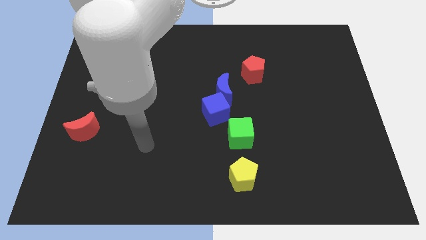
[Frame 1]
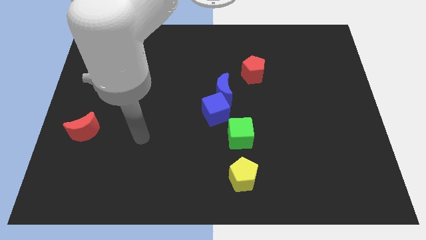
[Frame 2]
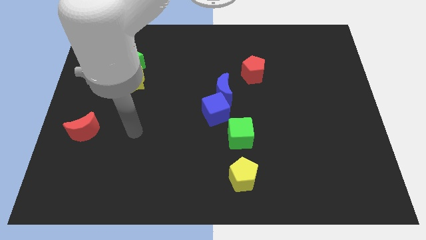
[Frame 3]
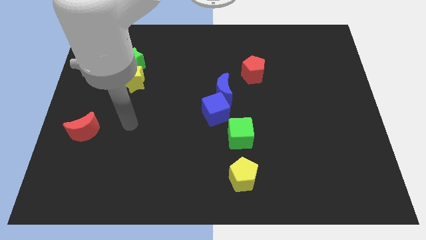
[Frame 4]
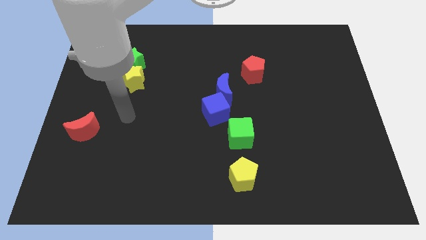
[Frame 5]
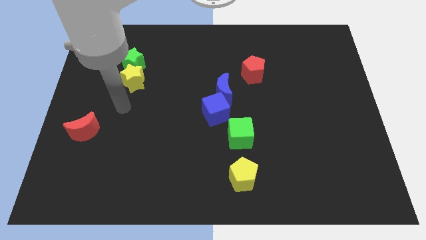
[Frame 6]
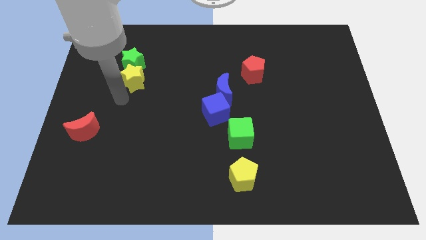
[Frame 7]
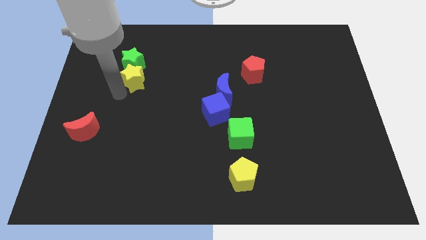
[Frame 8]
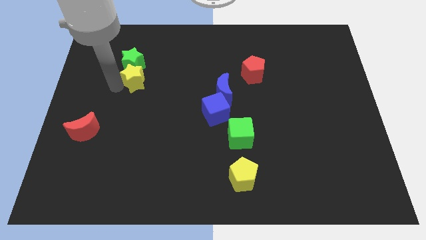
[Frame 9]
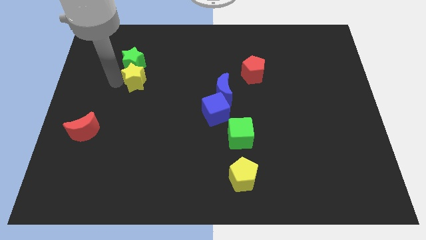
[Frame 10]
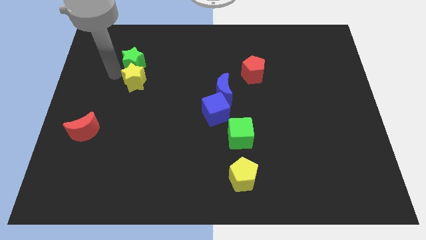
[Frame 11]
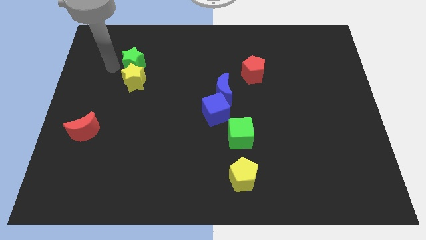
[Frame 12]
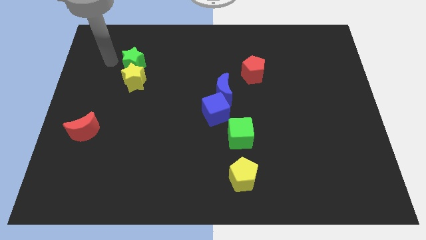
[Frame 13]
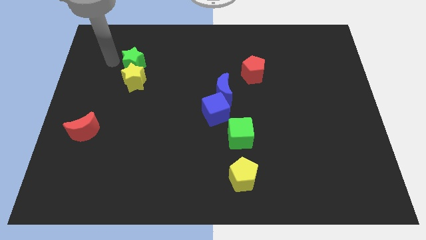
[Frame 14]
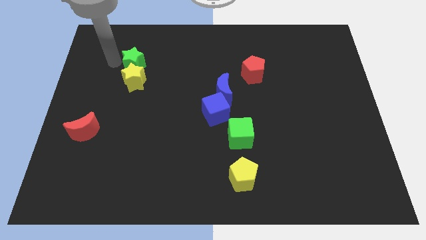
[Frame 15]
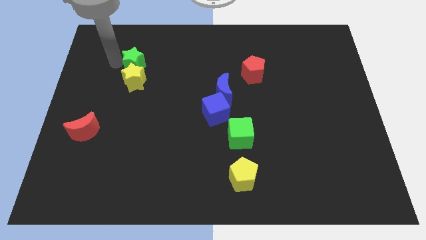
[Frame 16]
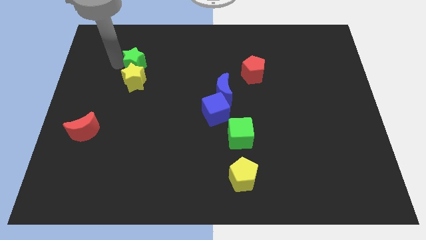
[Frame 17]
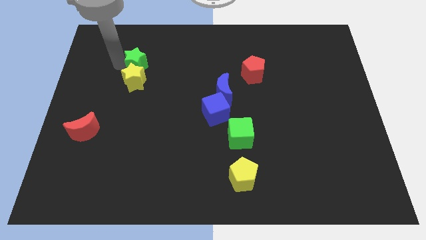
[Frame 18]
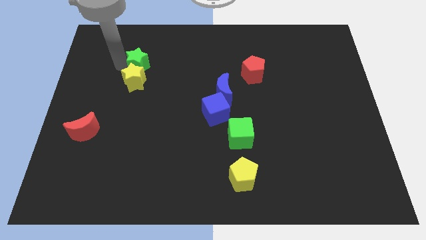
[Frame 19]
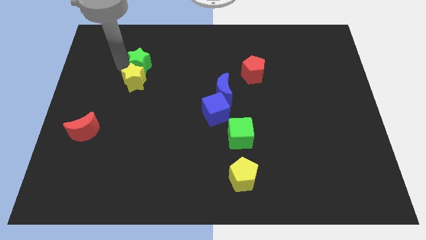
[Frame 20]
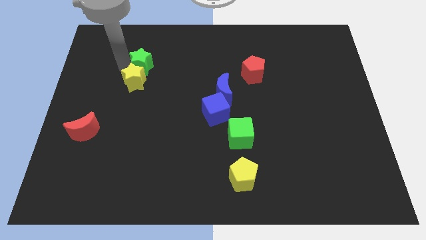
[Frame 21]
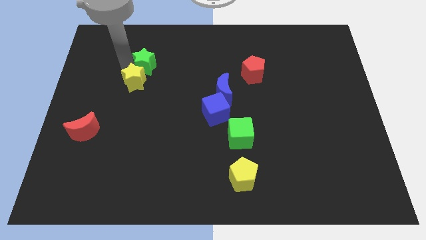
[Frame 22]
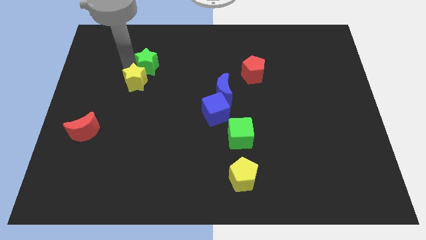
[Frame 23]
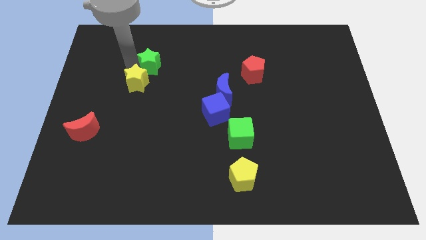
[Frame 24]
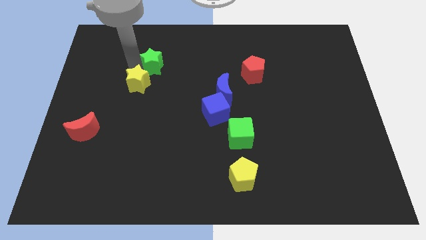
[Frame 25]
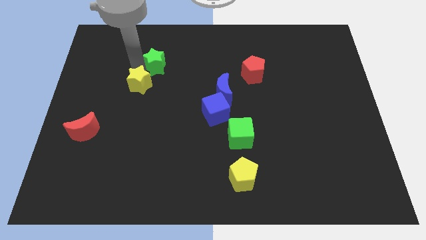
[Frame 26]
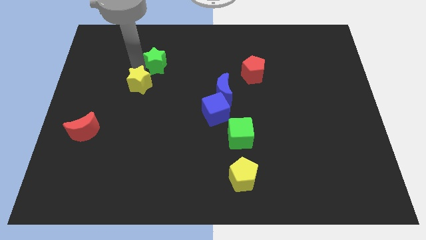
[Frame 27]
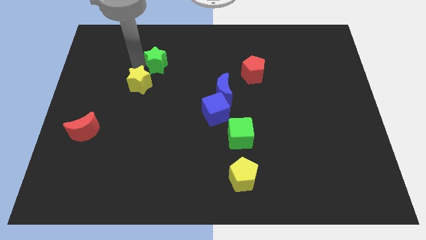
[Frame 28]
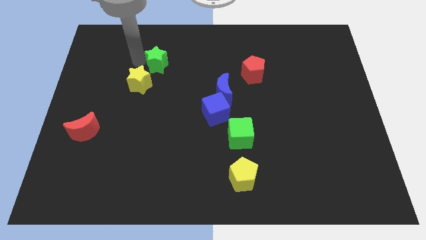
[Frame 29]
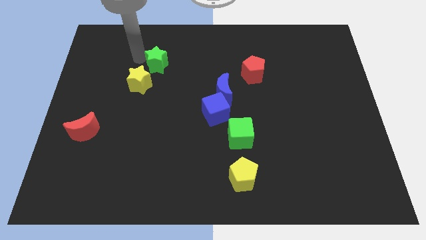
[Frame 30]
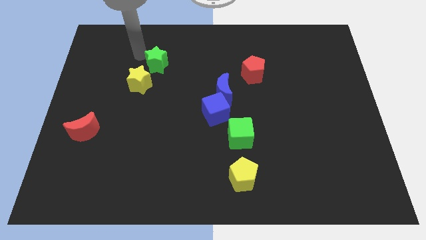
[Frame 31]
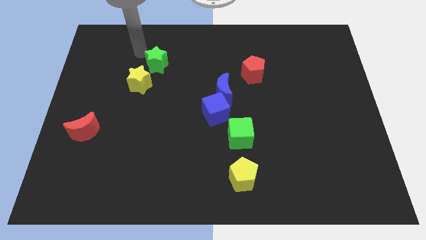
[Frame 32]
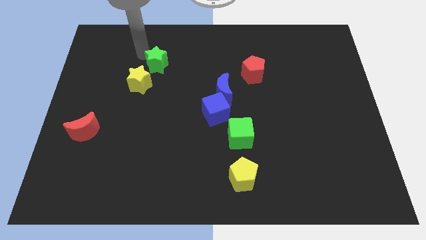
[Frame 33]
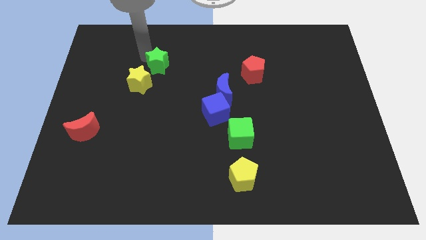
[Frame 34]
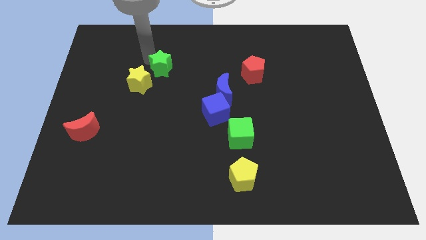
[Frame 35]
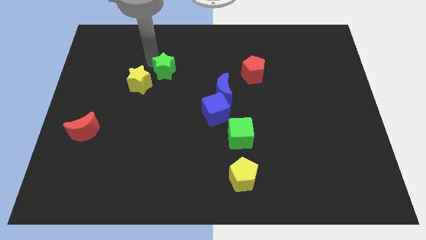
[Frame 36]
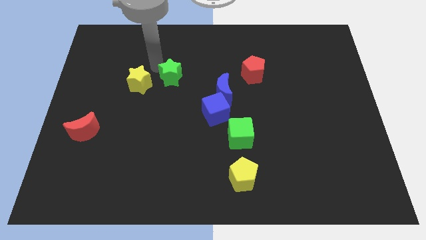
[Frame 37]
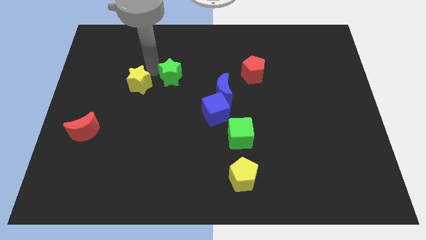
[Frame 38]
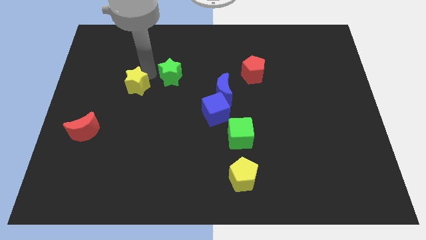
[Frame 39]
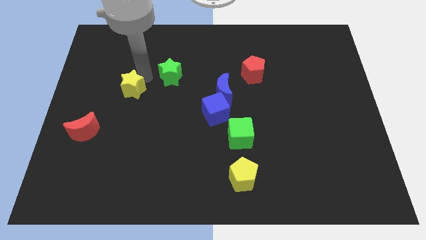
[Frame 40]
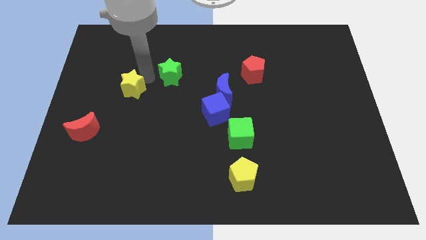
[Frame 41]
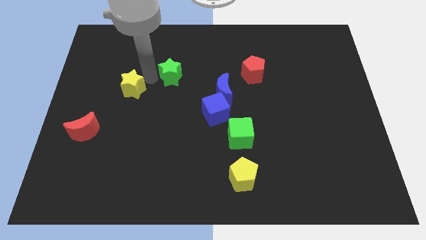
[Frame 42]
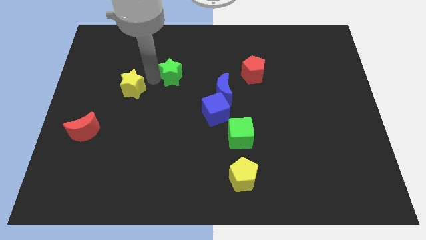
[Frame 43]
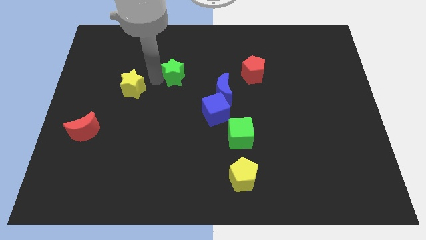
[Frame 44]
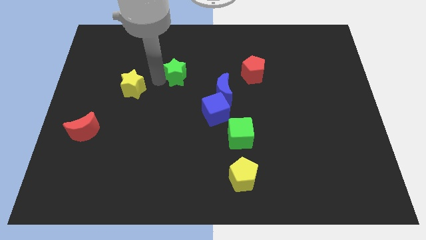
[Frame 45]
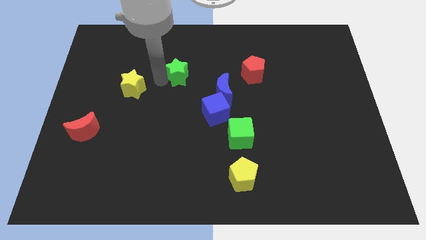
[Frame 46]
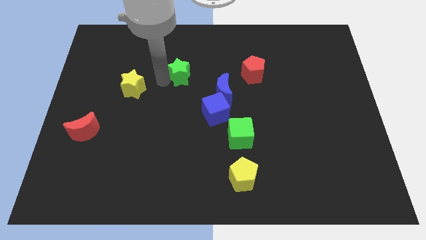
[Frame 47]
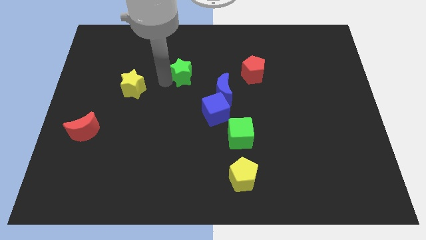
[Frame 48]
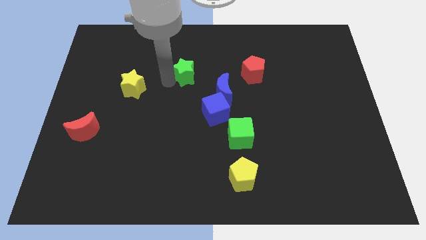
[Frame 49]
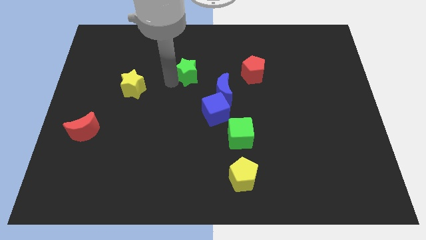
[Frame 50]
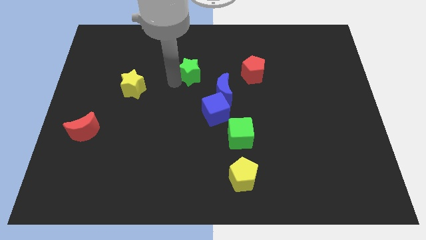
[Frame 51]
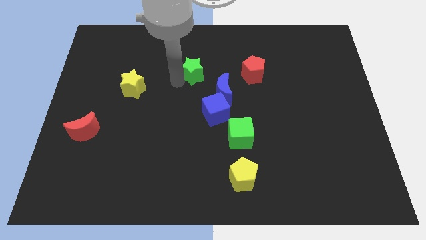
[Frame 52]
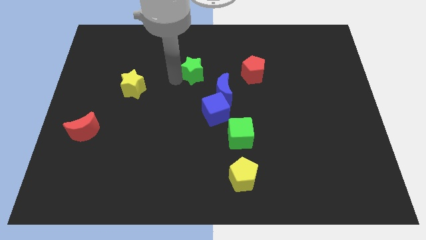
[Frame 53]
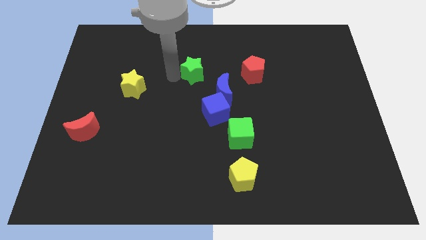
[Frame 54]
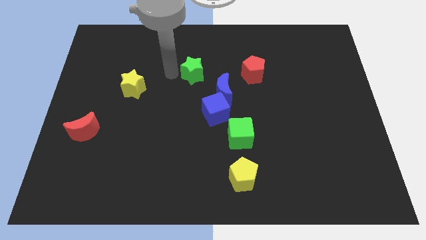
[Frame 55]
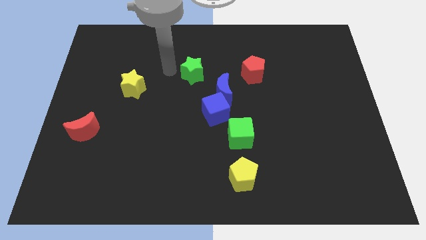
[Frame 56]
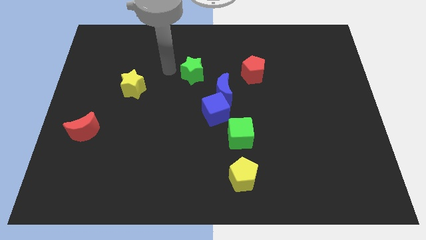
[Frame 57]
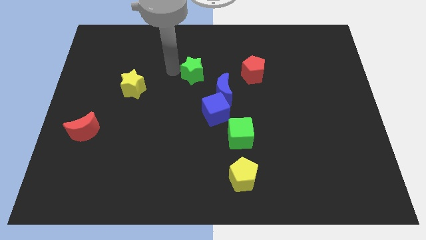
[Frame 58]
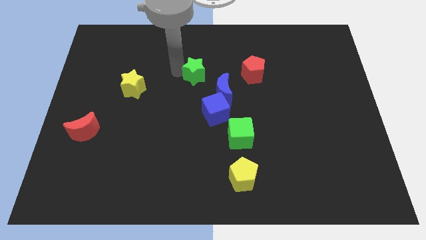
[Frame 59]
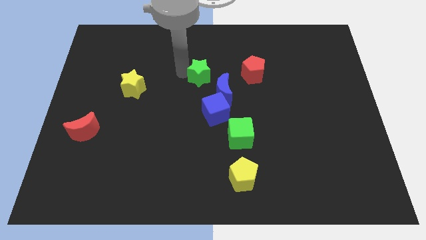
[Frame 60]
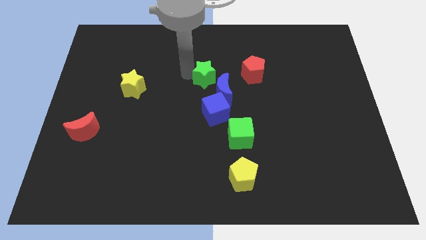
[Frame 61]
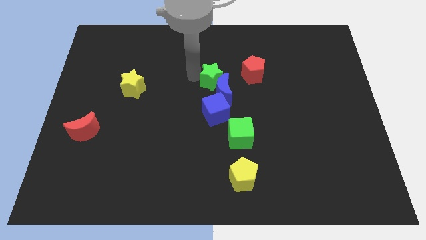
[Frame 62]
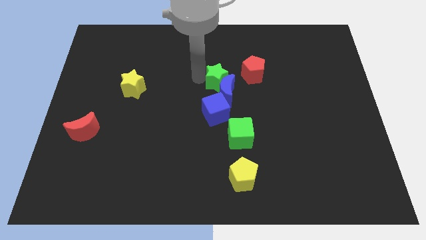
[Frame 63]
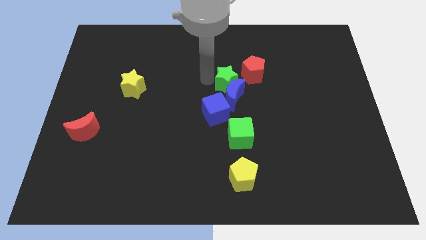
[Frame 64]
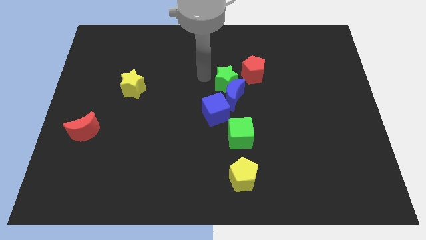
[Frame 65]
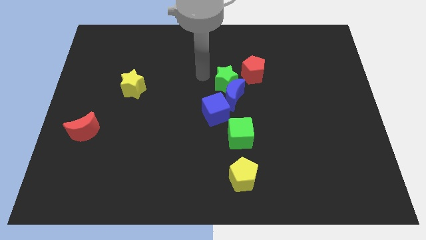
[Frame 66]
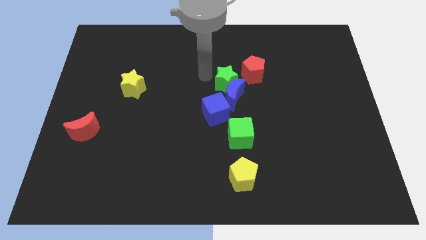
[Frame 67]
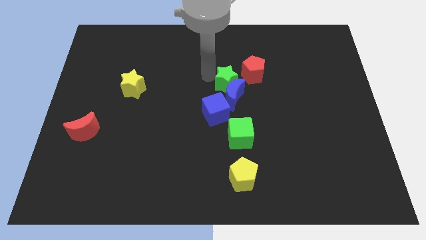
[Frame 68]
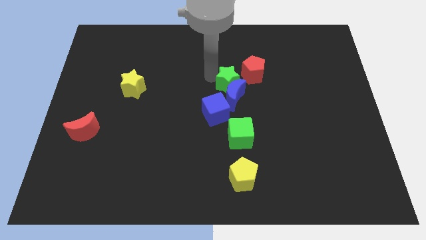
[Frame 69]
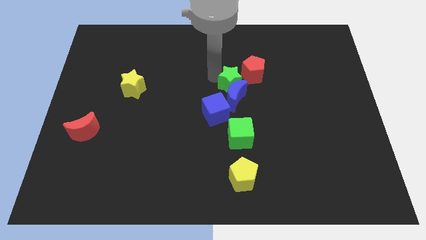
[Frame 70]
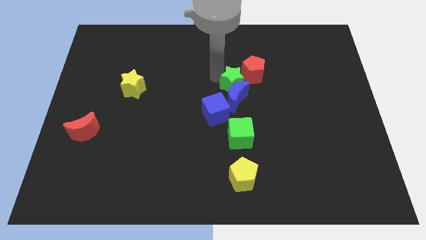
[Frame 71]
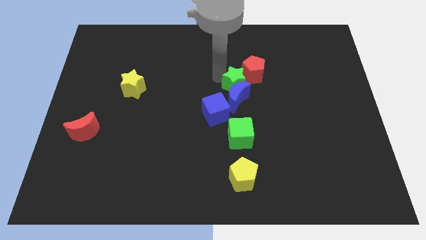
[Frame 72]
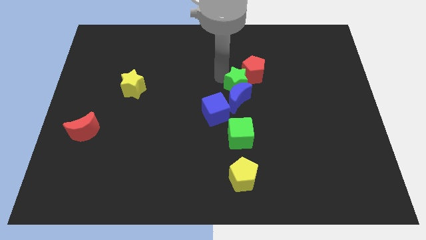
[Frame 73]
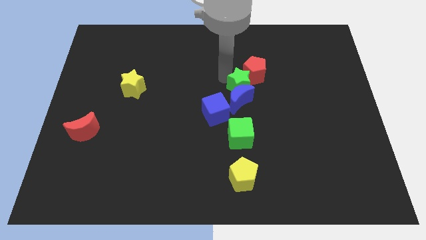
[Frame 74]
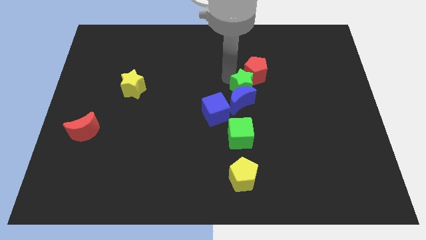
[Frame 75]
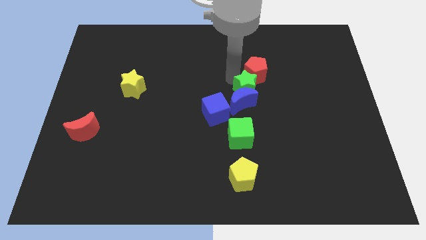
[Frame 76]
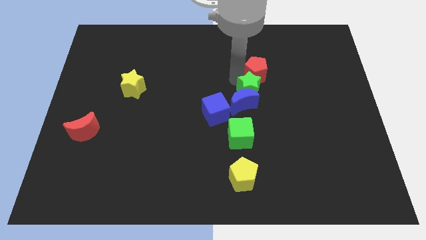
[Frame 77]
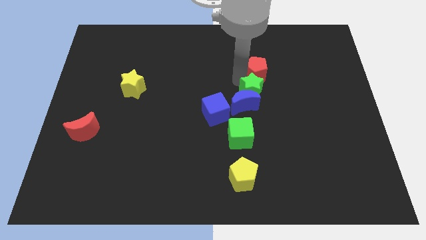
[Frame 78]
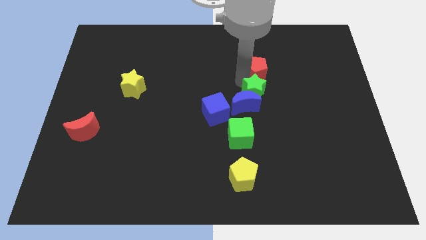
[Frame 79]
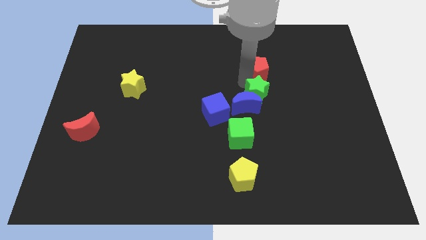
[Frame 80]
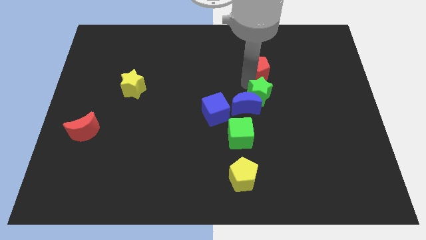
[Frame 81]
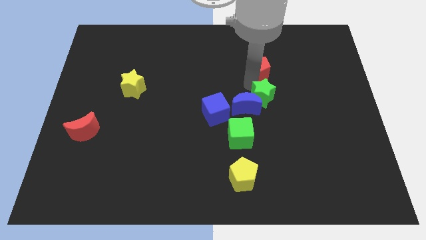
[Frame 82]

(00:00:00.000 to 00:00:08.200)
slide the green star to the right of the blue cube
